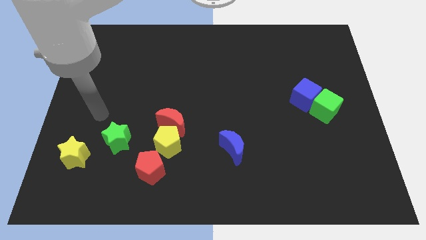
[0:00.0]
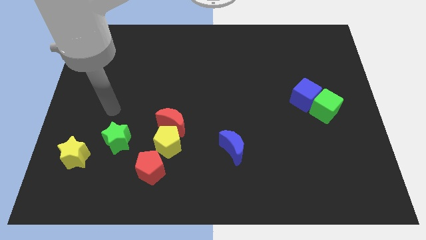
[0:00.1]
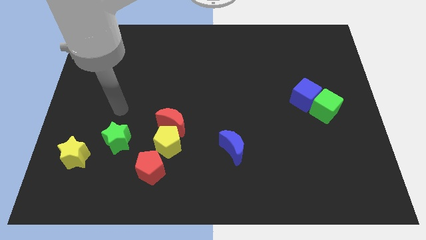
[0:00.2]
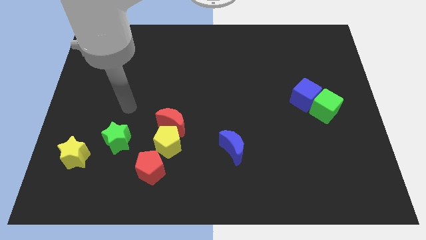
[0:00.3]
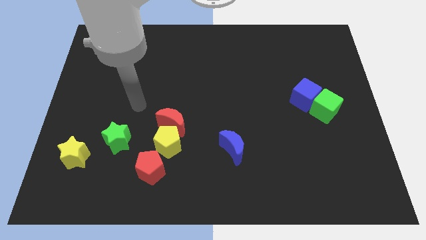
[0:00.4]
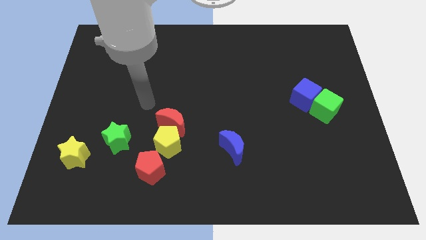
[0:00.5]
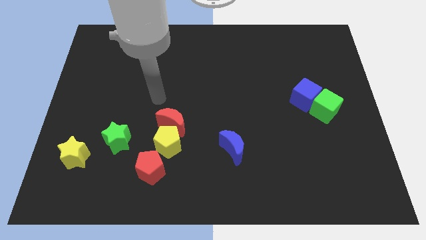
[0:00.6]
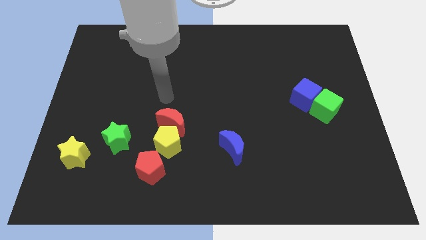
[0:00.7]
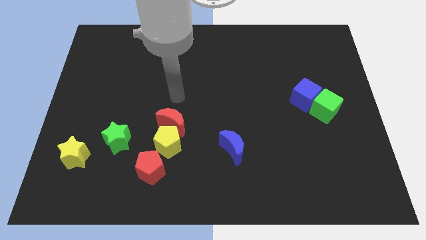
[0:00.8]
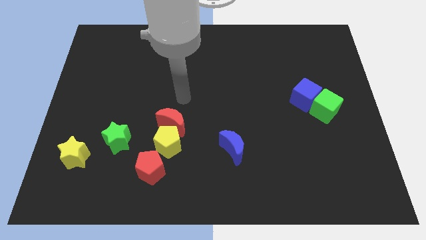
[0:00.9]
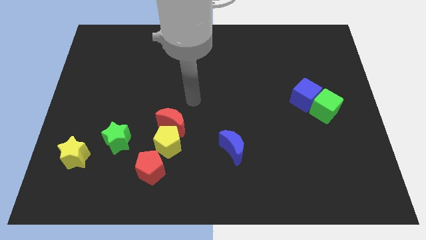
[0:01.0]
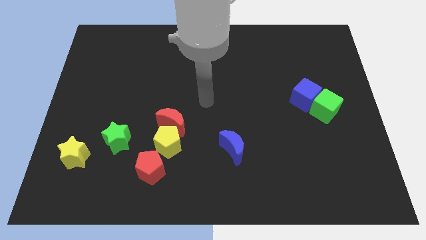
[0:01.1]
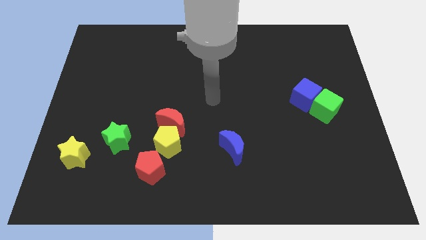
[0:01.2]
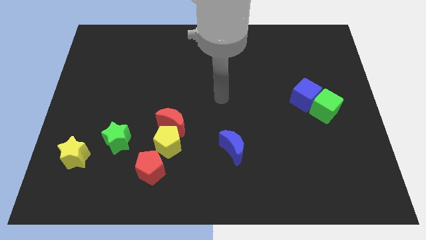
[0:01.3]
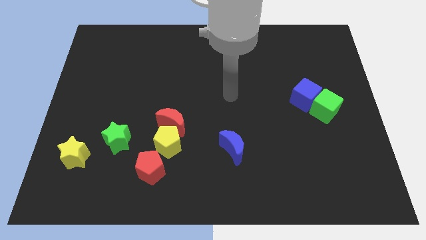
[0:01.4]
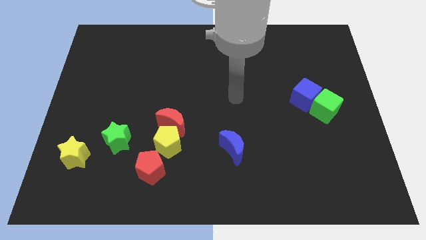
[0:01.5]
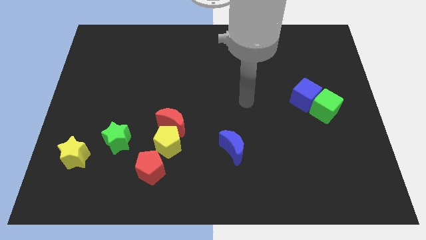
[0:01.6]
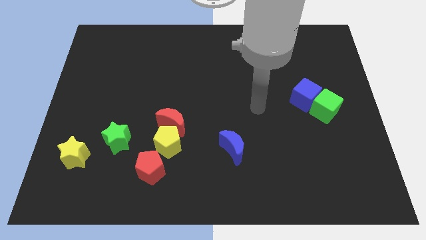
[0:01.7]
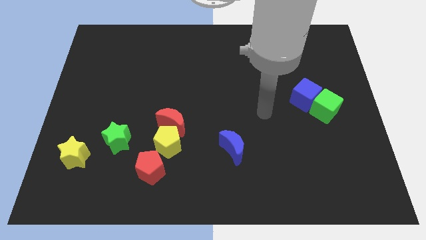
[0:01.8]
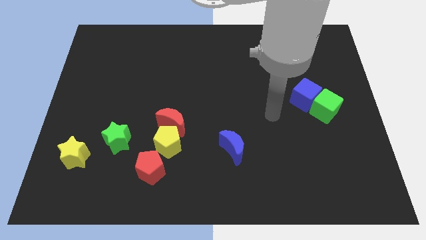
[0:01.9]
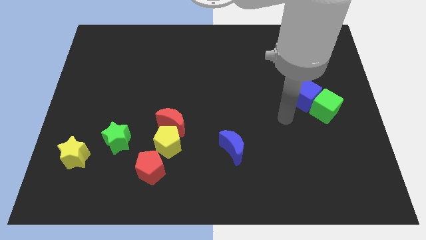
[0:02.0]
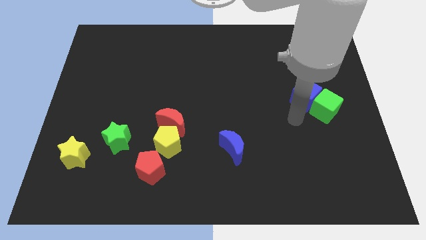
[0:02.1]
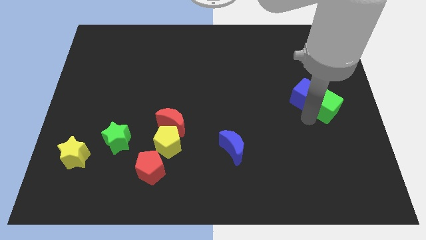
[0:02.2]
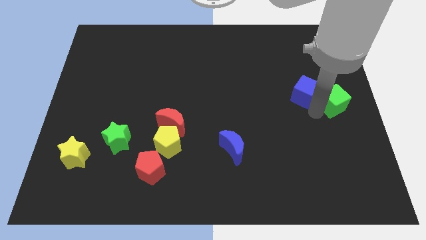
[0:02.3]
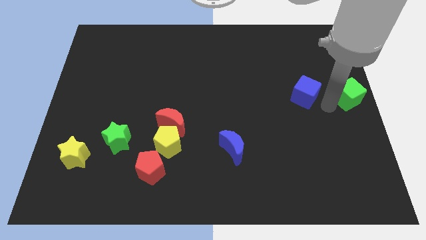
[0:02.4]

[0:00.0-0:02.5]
move the blue cube away from the green cube

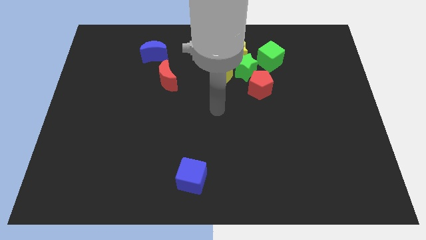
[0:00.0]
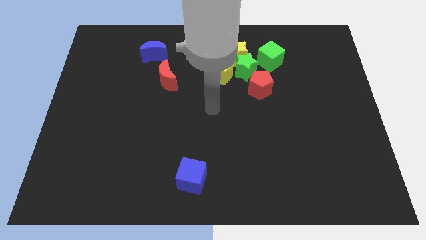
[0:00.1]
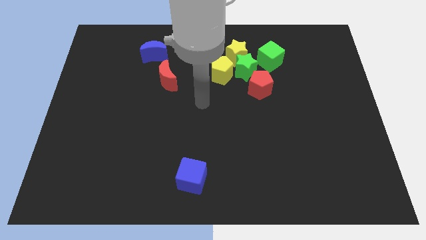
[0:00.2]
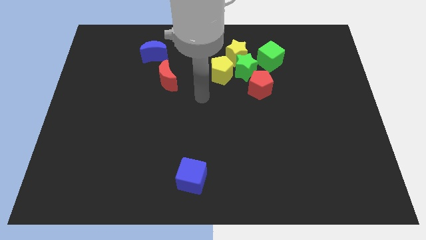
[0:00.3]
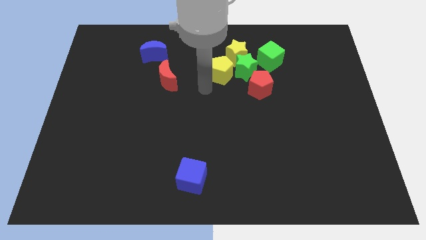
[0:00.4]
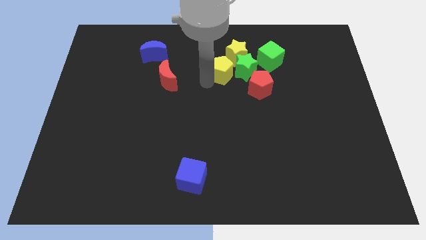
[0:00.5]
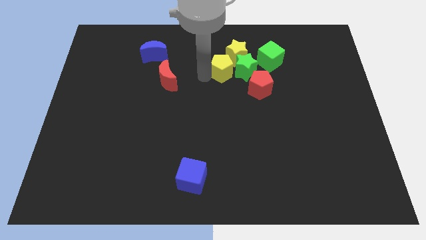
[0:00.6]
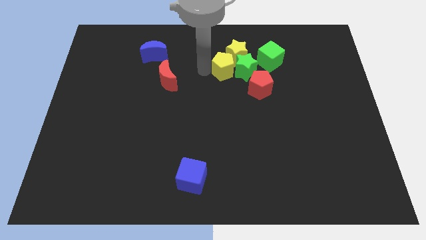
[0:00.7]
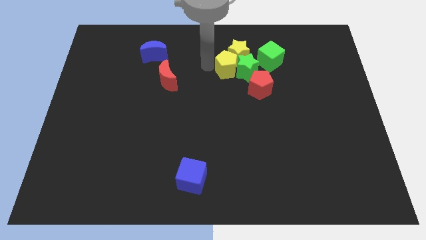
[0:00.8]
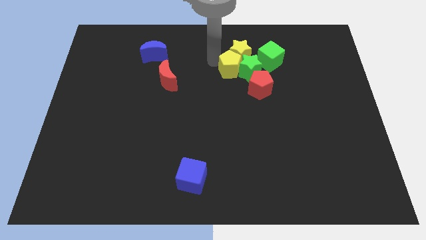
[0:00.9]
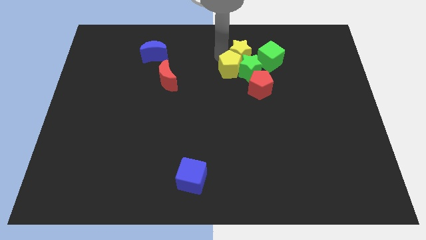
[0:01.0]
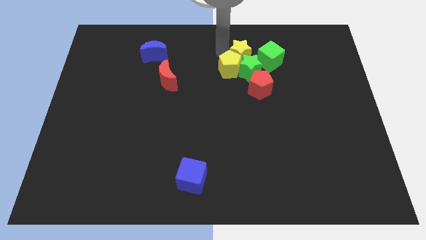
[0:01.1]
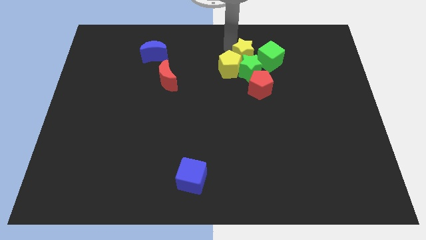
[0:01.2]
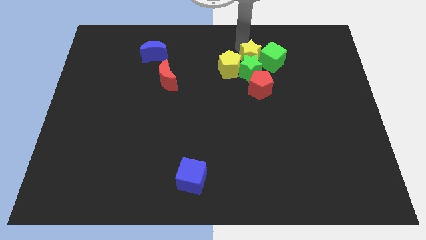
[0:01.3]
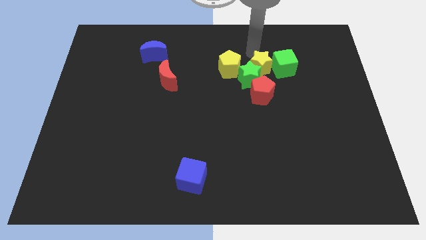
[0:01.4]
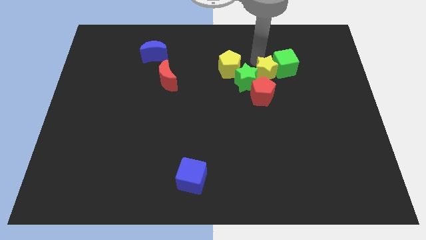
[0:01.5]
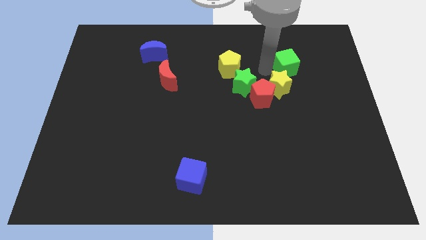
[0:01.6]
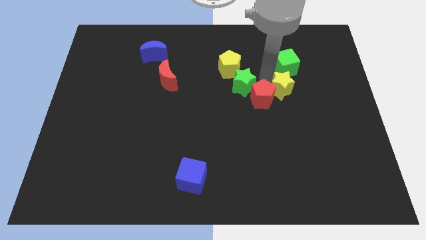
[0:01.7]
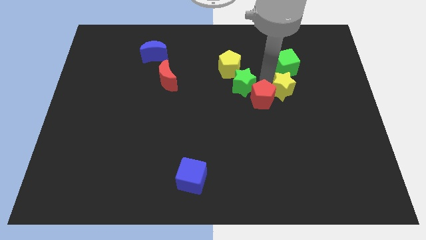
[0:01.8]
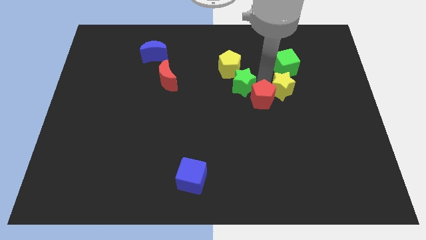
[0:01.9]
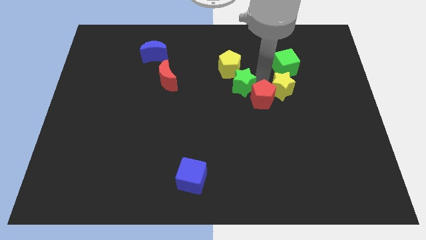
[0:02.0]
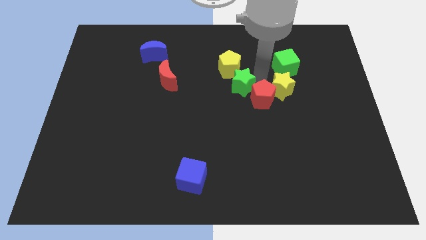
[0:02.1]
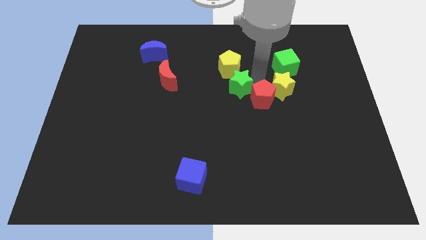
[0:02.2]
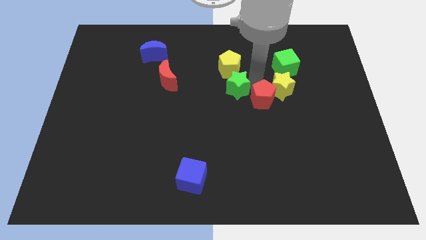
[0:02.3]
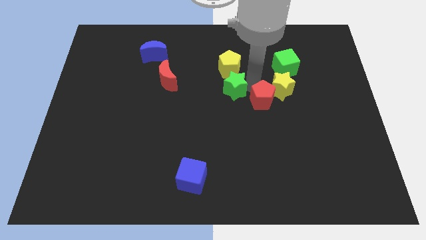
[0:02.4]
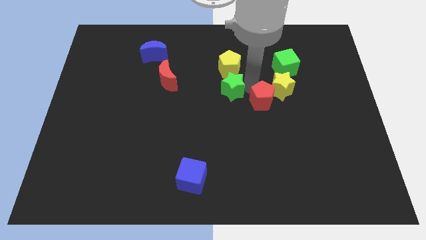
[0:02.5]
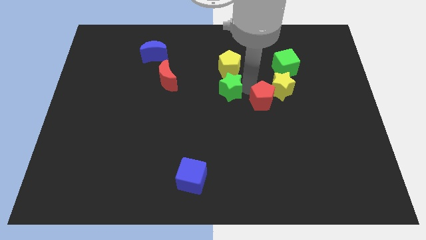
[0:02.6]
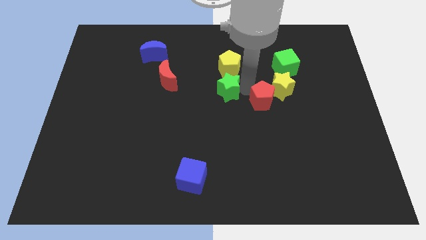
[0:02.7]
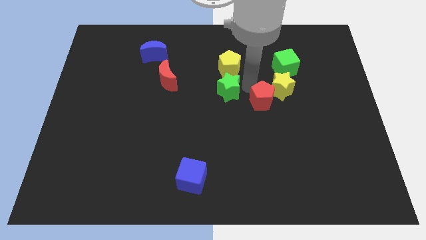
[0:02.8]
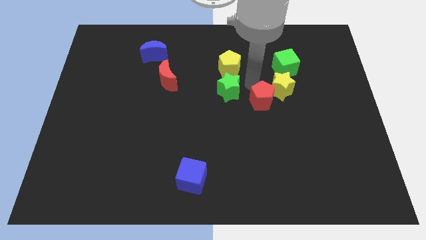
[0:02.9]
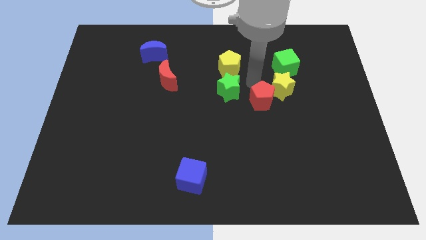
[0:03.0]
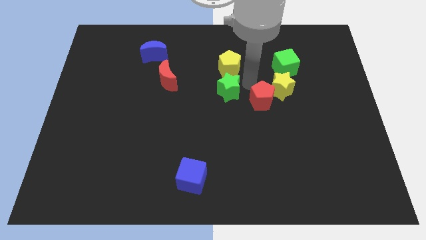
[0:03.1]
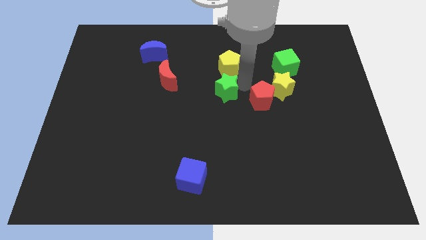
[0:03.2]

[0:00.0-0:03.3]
pull the green star apart from the group of blocks

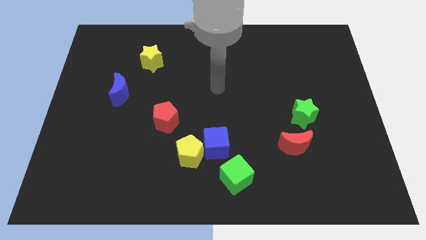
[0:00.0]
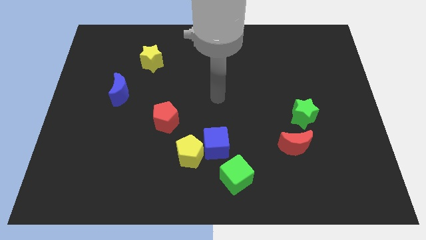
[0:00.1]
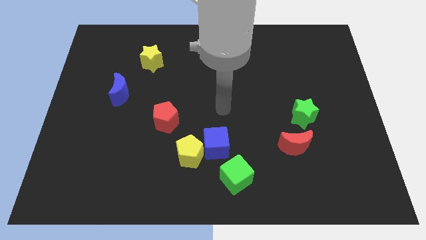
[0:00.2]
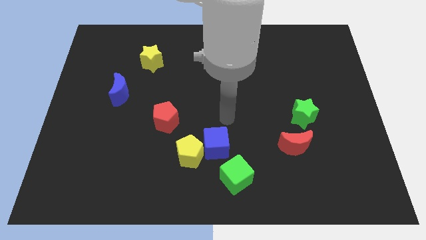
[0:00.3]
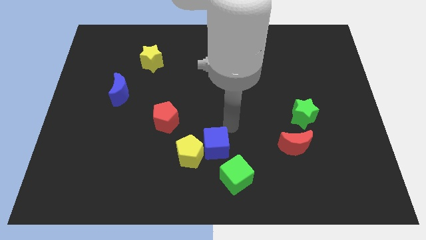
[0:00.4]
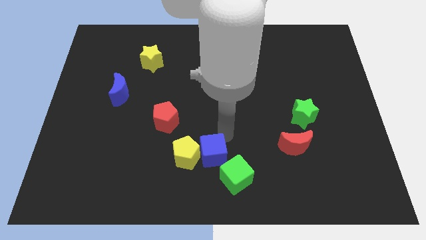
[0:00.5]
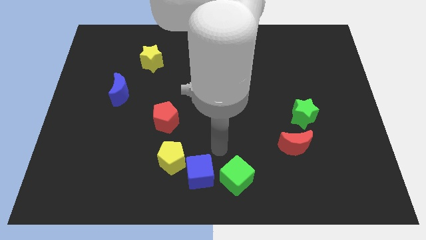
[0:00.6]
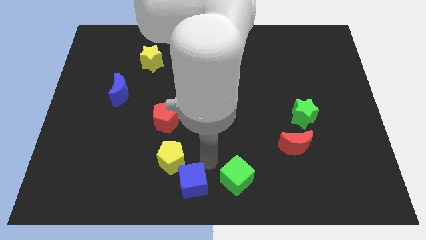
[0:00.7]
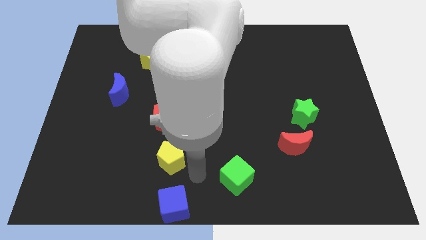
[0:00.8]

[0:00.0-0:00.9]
move the yellow pentagon away from the blue cube

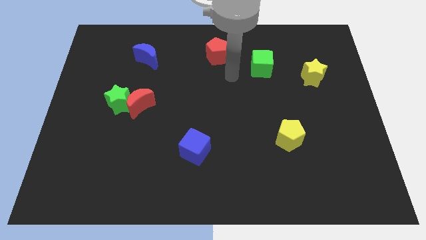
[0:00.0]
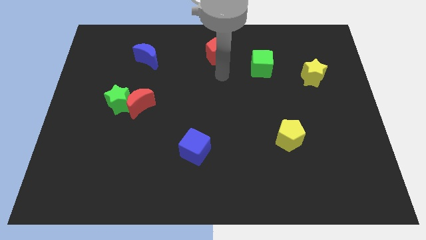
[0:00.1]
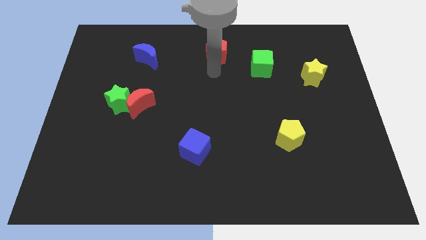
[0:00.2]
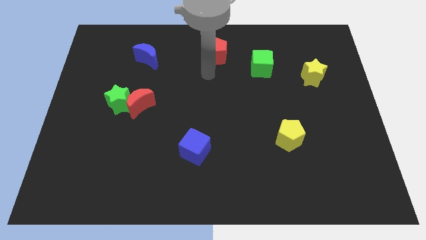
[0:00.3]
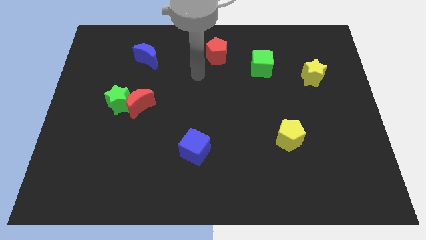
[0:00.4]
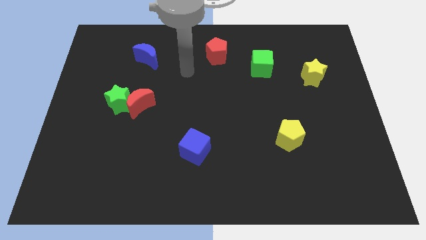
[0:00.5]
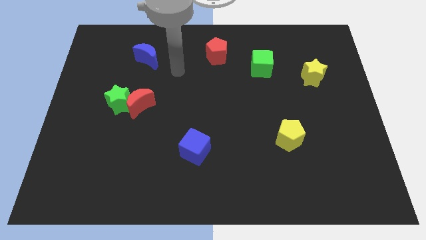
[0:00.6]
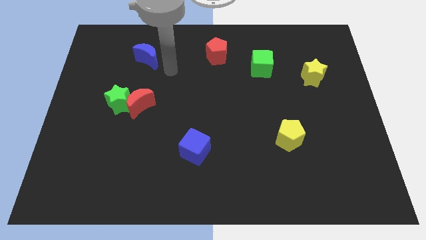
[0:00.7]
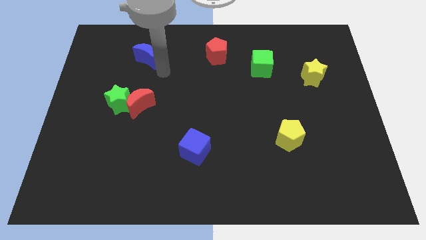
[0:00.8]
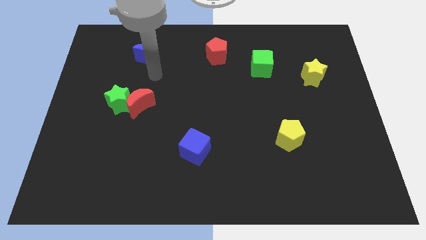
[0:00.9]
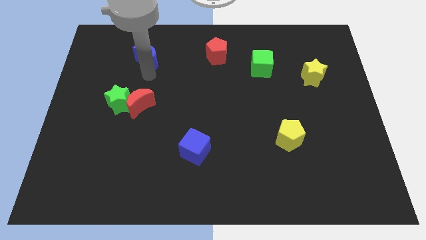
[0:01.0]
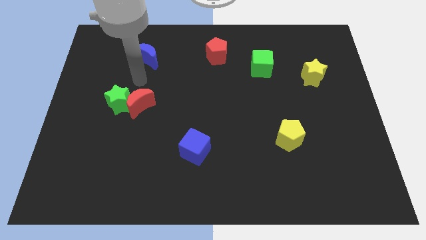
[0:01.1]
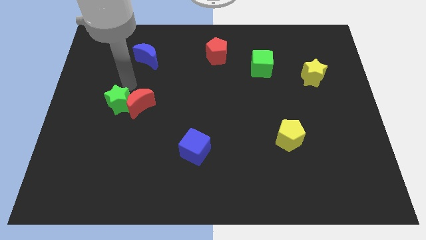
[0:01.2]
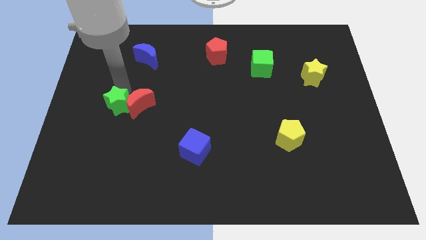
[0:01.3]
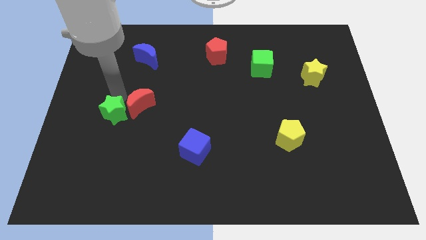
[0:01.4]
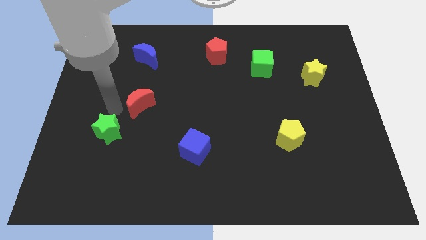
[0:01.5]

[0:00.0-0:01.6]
separate the red moon from the green star

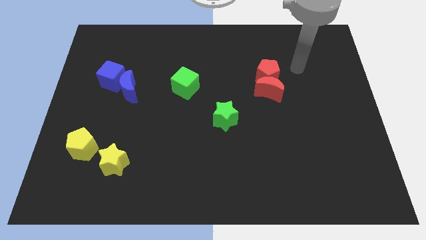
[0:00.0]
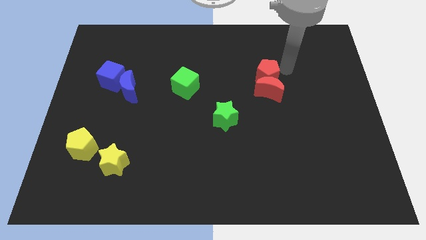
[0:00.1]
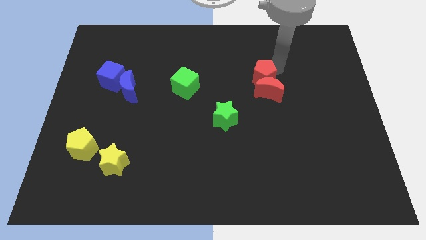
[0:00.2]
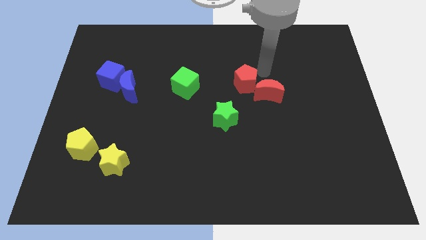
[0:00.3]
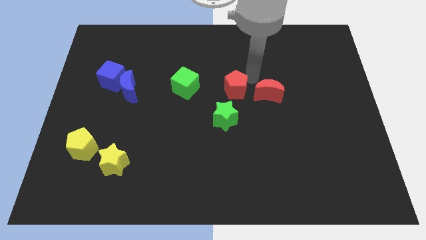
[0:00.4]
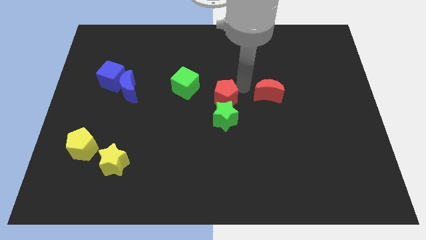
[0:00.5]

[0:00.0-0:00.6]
separate the red moon from the red pentagon

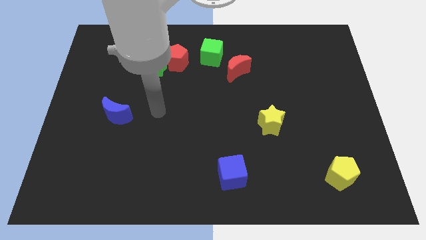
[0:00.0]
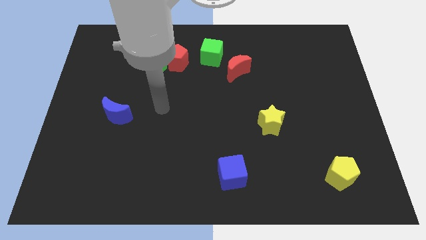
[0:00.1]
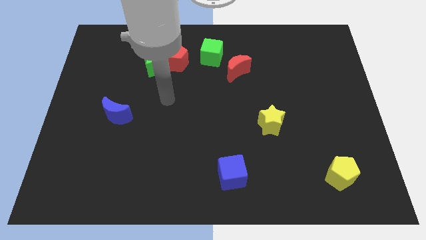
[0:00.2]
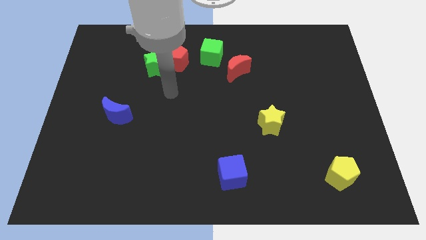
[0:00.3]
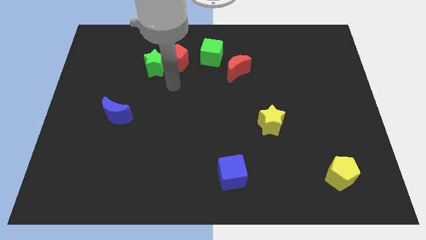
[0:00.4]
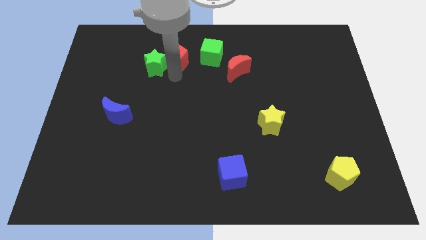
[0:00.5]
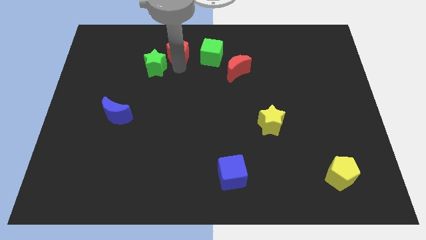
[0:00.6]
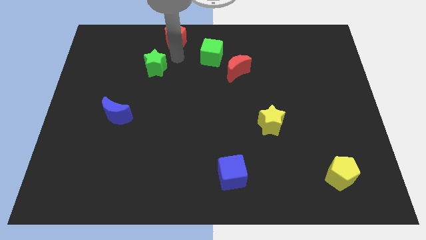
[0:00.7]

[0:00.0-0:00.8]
pull the green star apart from the red pentagon
